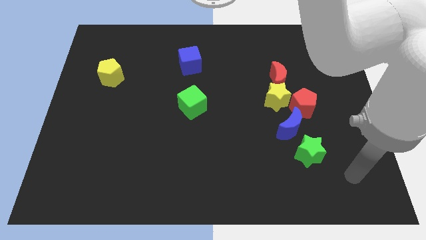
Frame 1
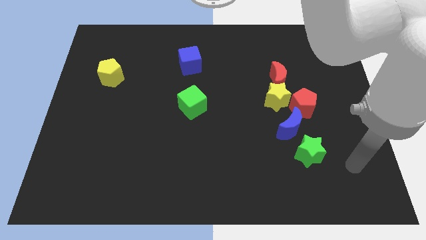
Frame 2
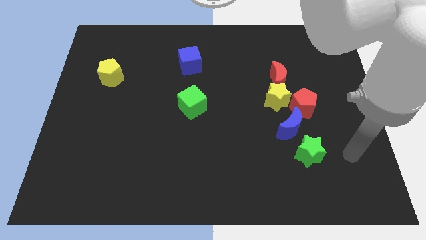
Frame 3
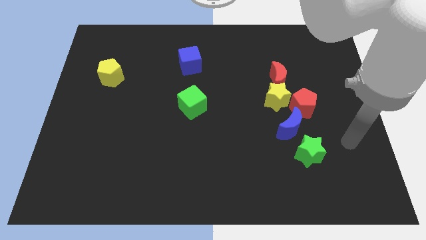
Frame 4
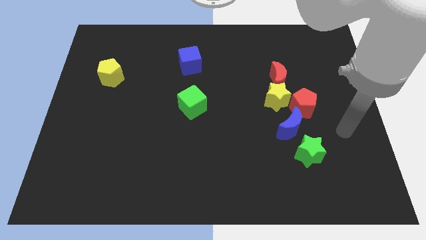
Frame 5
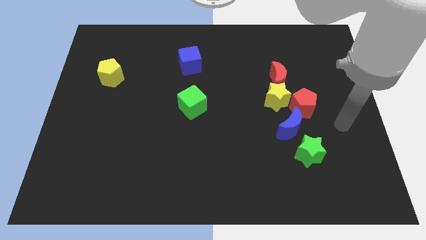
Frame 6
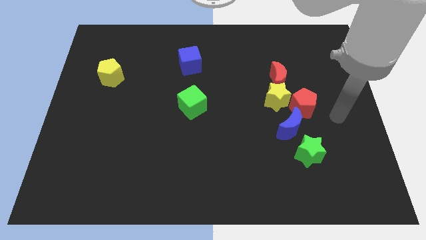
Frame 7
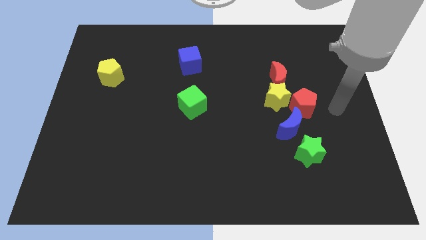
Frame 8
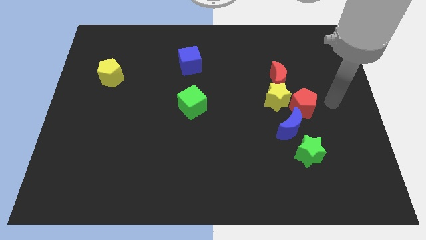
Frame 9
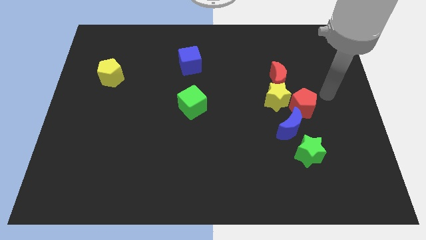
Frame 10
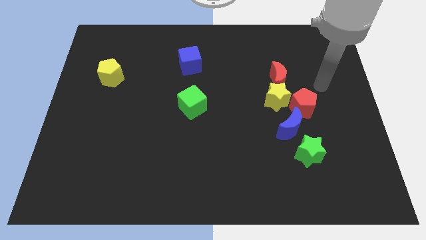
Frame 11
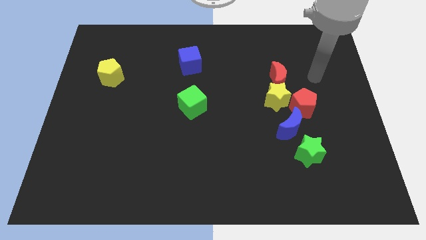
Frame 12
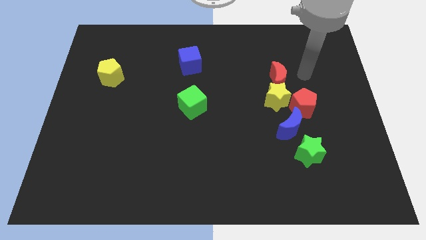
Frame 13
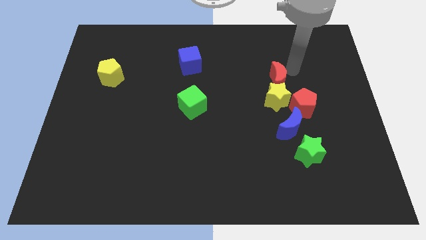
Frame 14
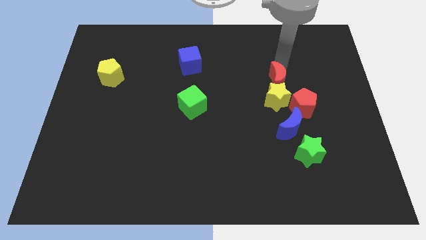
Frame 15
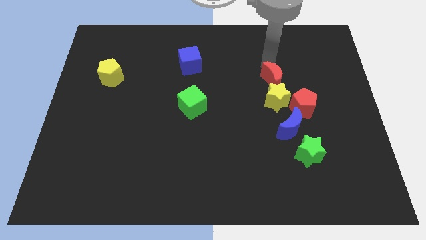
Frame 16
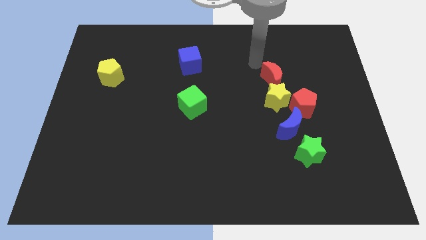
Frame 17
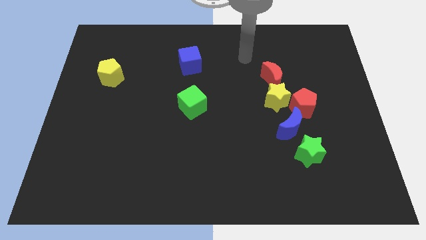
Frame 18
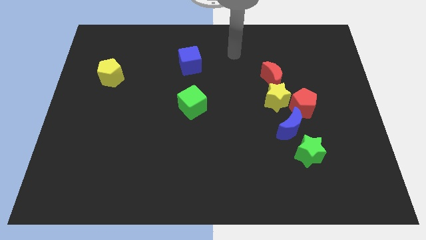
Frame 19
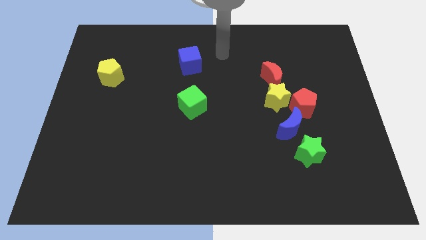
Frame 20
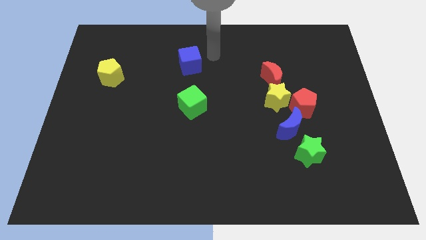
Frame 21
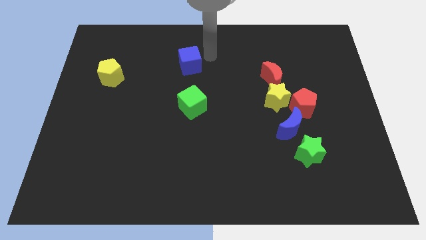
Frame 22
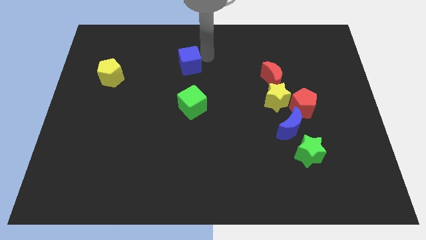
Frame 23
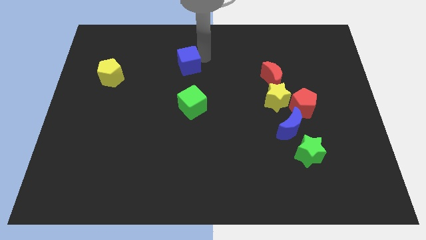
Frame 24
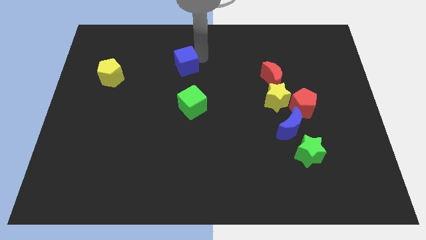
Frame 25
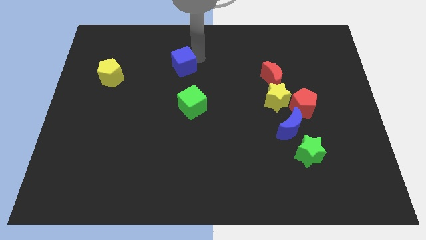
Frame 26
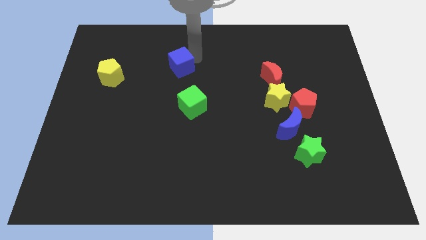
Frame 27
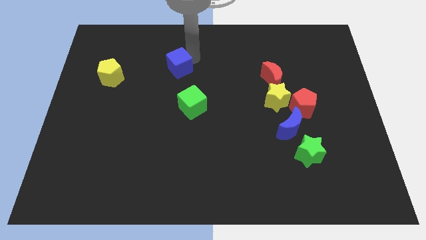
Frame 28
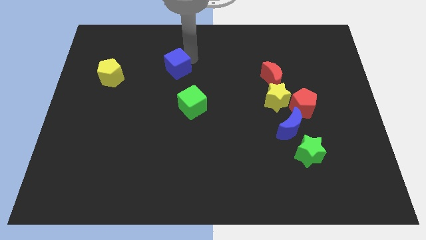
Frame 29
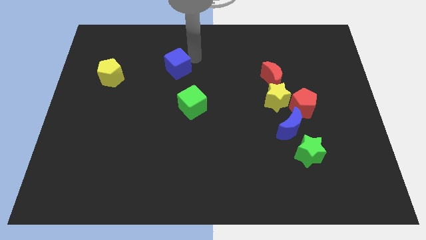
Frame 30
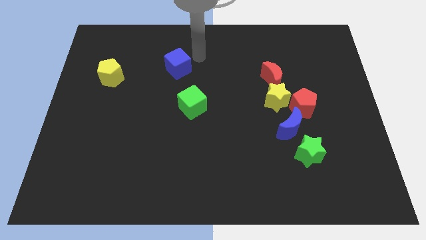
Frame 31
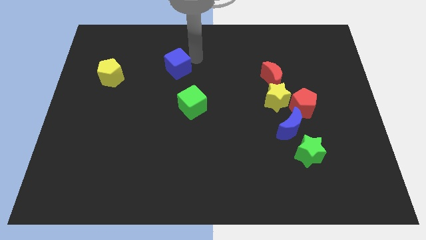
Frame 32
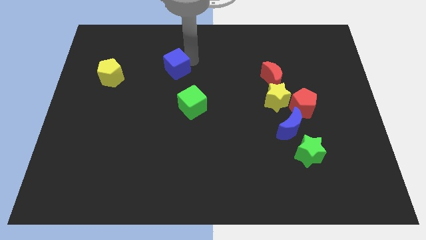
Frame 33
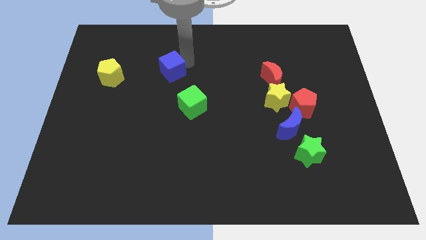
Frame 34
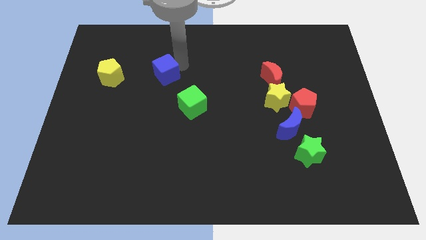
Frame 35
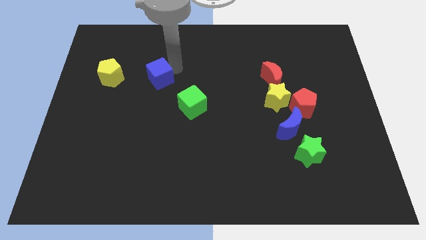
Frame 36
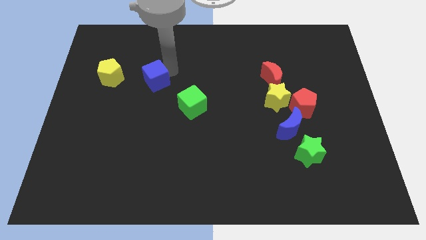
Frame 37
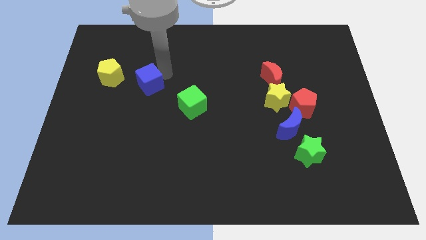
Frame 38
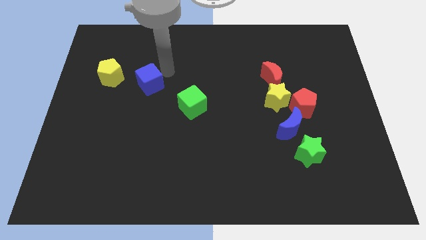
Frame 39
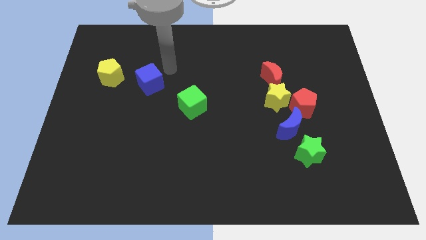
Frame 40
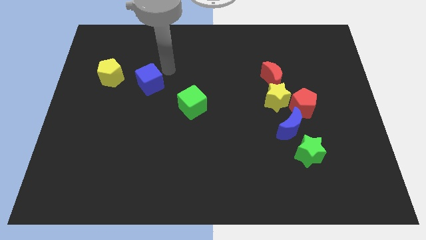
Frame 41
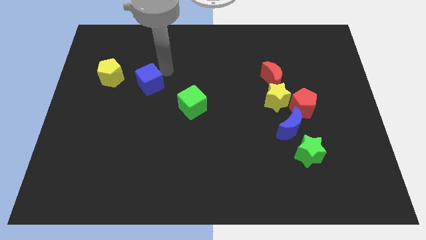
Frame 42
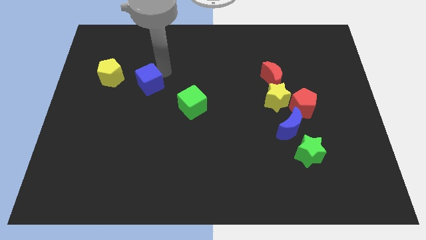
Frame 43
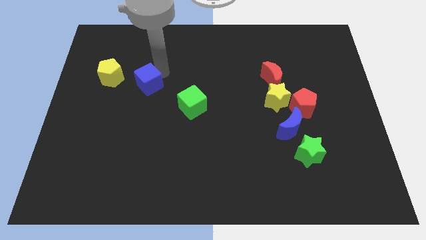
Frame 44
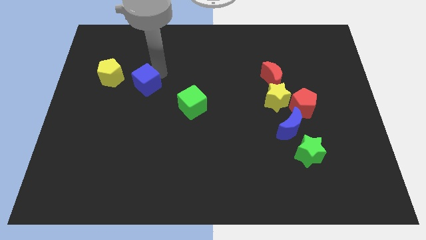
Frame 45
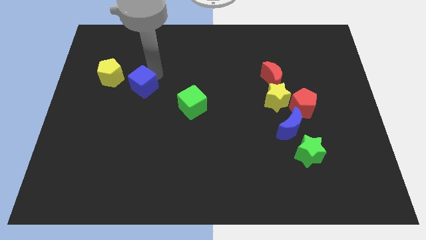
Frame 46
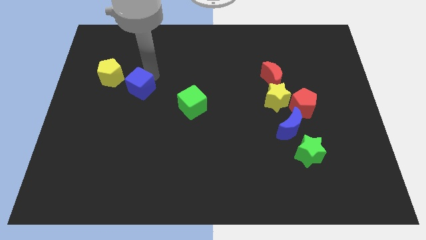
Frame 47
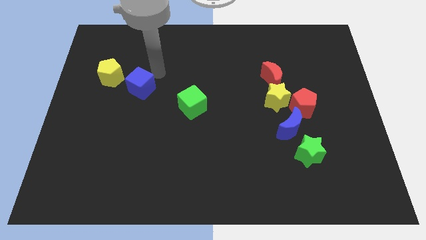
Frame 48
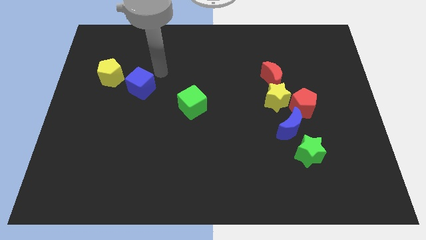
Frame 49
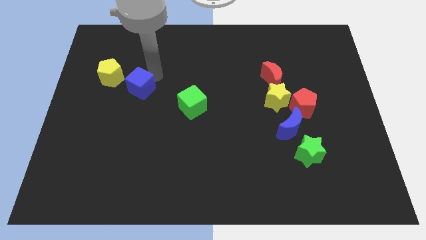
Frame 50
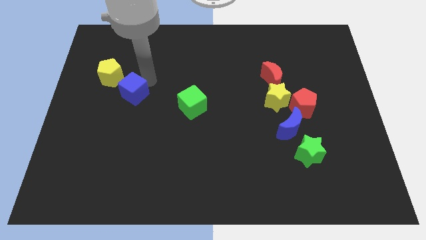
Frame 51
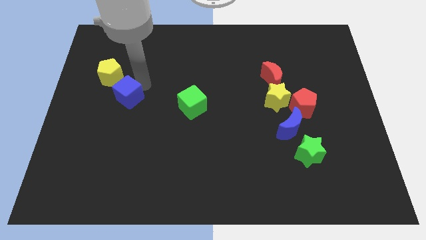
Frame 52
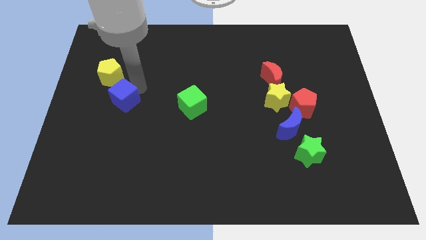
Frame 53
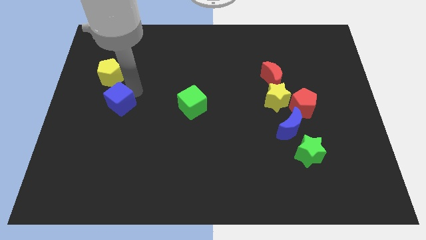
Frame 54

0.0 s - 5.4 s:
slide the blue cube downwards and to the left

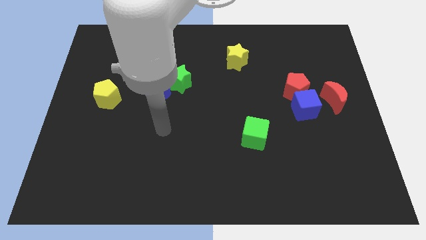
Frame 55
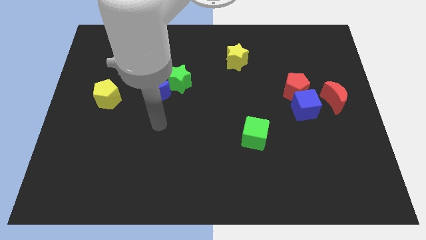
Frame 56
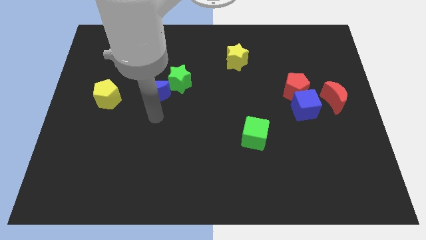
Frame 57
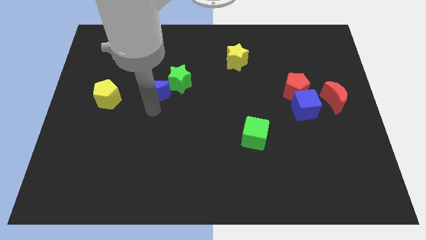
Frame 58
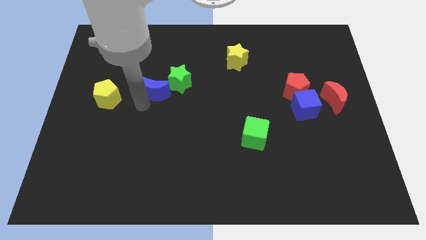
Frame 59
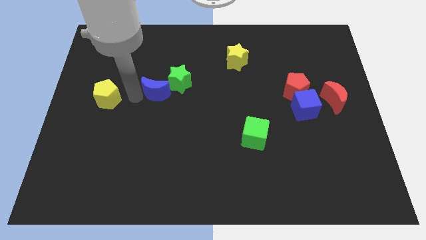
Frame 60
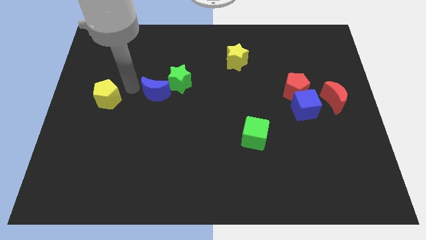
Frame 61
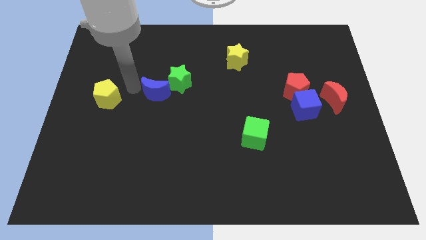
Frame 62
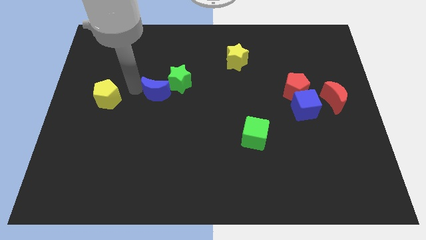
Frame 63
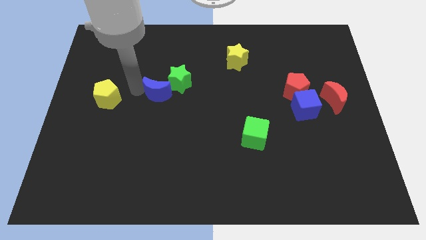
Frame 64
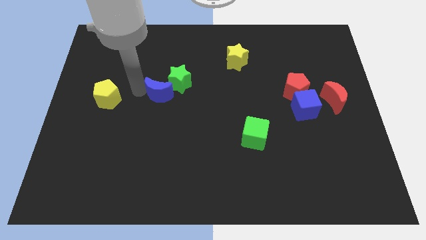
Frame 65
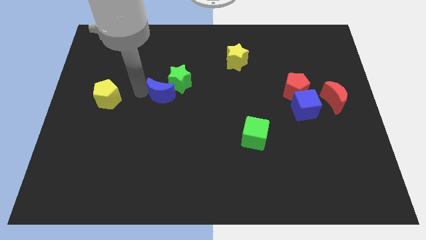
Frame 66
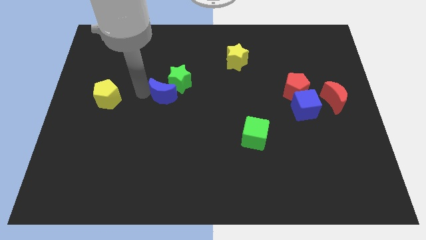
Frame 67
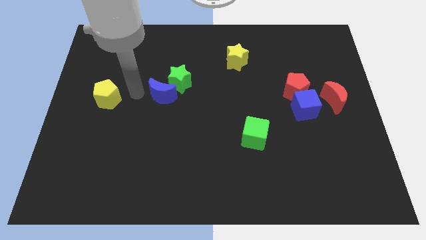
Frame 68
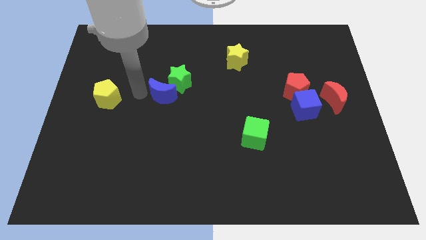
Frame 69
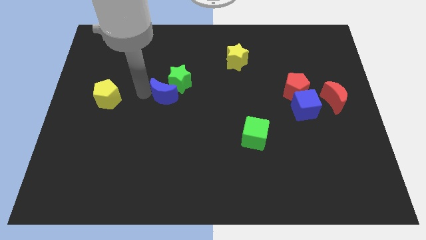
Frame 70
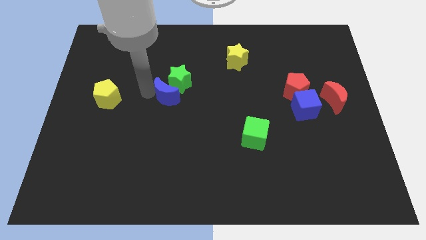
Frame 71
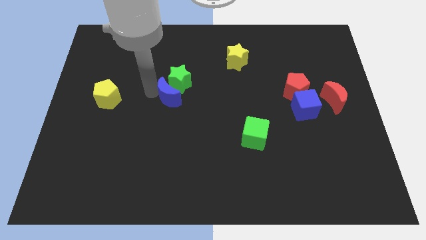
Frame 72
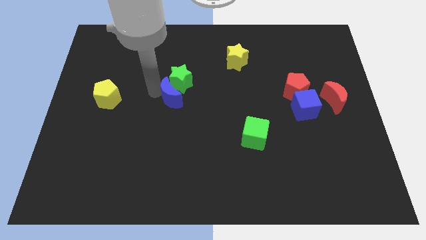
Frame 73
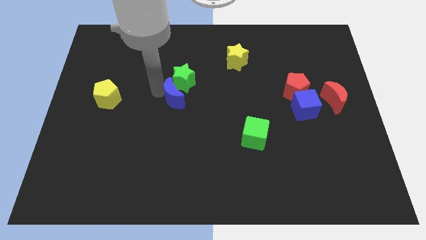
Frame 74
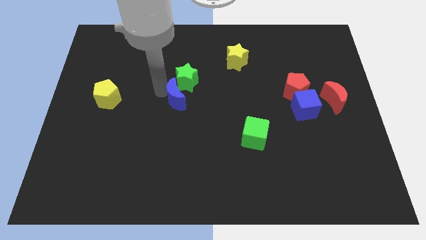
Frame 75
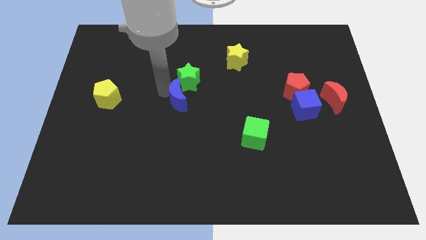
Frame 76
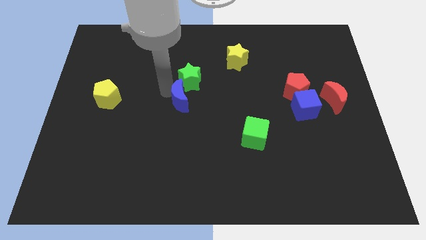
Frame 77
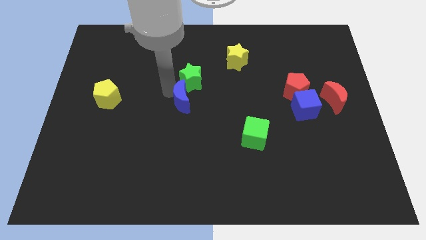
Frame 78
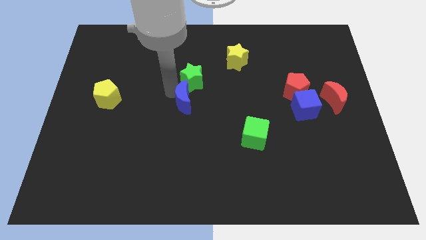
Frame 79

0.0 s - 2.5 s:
push the blue moon right a little
